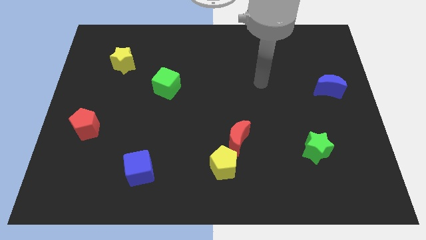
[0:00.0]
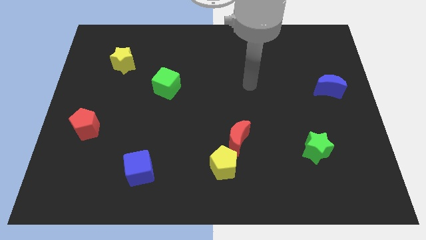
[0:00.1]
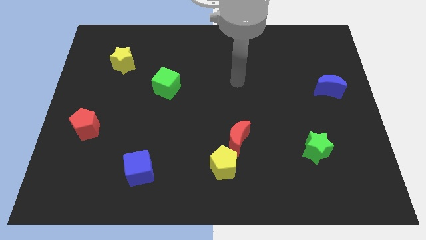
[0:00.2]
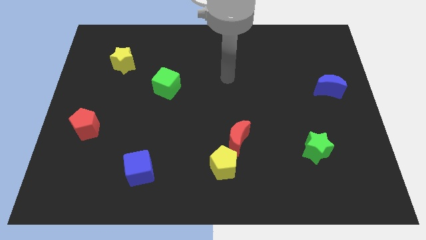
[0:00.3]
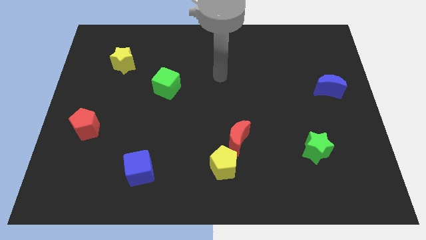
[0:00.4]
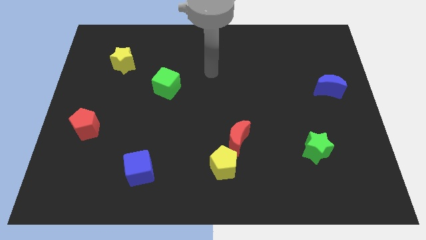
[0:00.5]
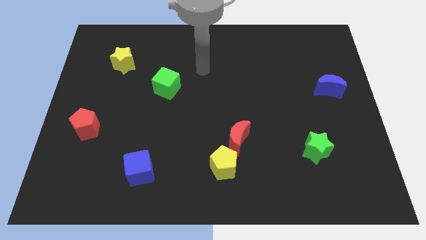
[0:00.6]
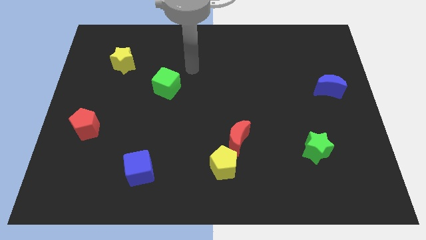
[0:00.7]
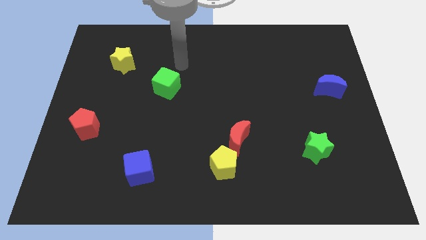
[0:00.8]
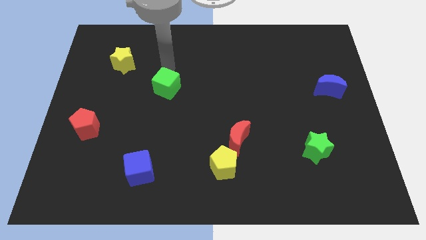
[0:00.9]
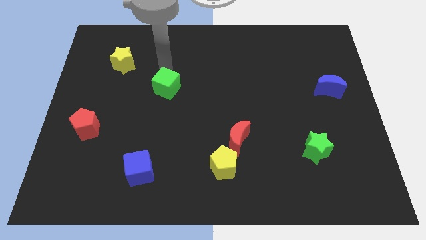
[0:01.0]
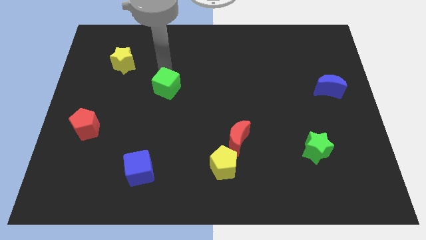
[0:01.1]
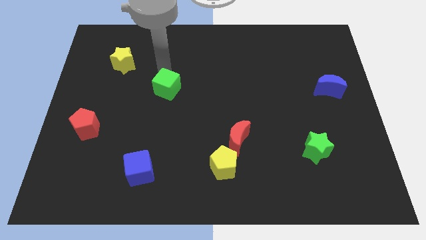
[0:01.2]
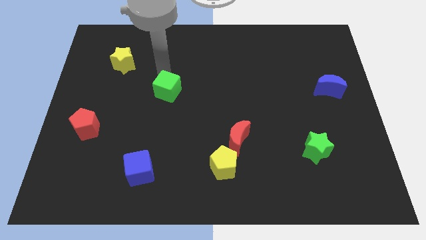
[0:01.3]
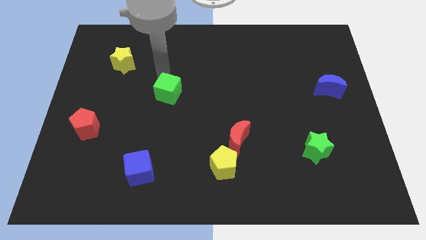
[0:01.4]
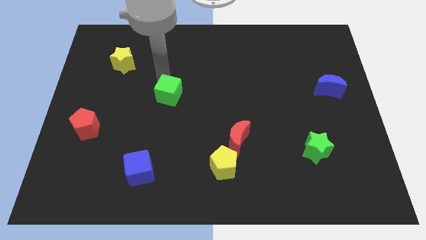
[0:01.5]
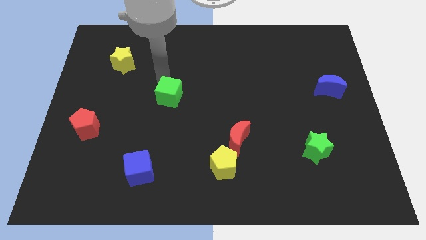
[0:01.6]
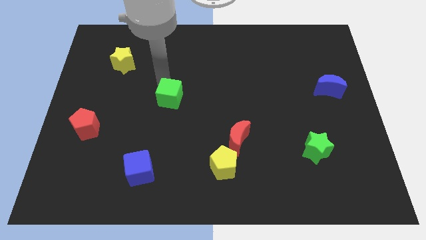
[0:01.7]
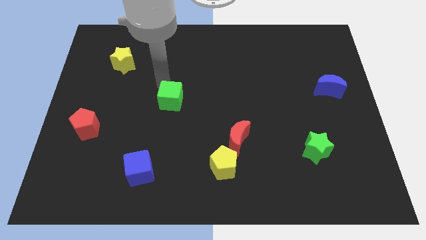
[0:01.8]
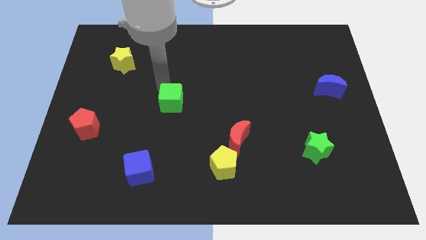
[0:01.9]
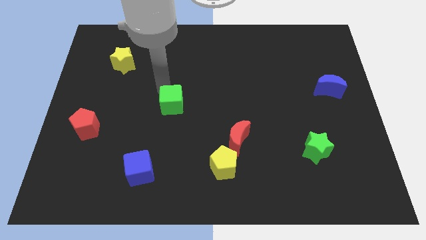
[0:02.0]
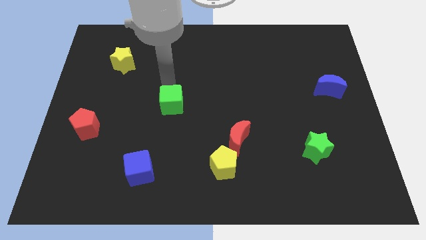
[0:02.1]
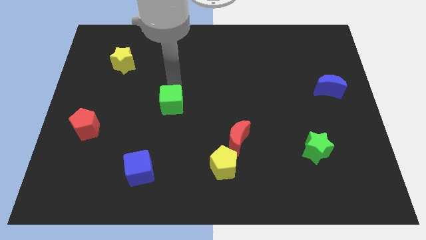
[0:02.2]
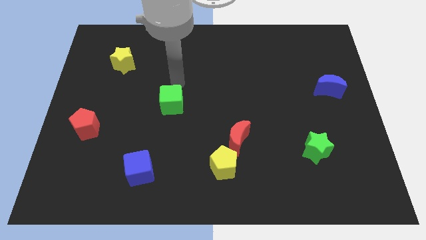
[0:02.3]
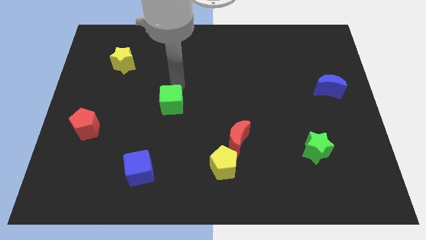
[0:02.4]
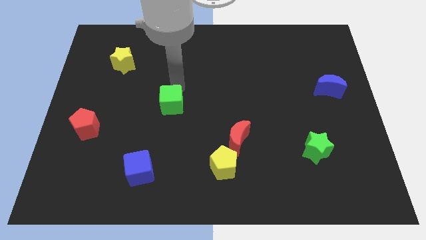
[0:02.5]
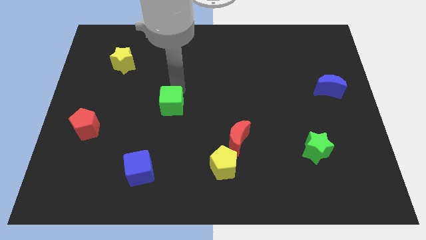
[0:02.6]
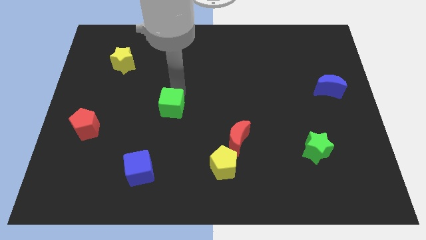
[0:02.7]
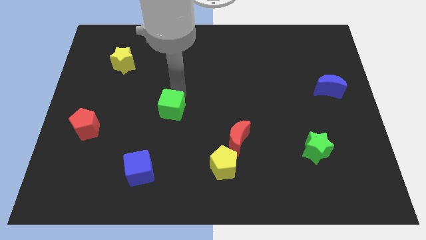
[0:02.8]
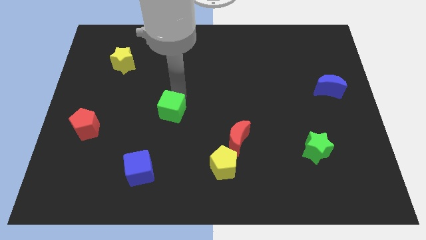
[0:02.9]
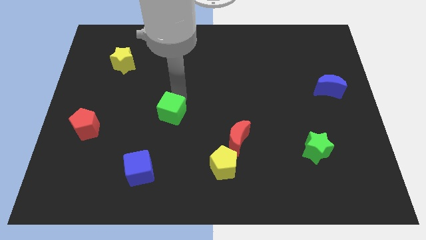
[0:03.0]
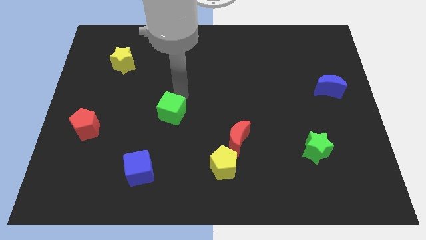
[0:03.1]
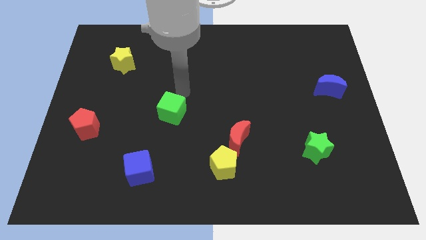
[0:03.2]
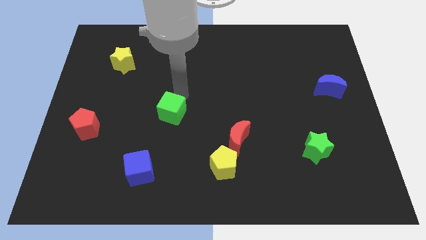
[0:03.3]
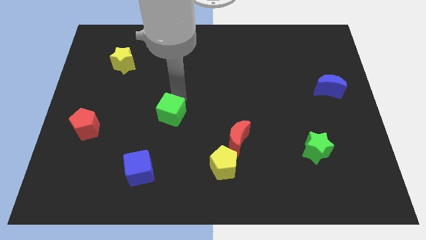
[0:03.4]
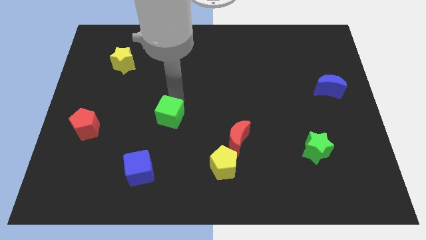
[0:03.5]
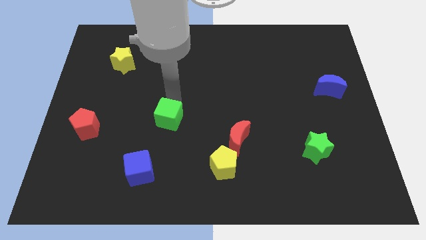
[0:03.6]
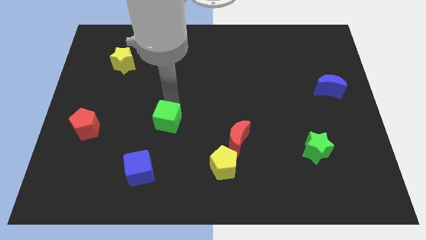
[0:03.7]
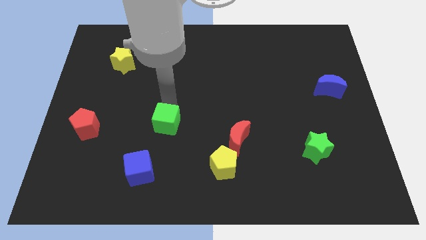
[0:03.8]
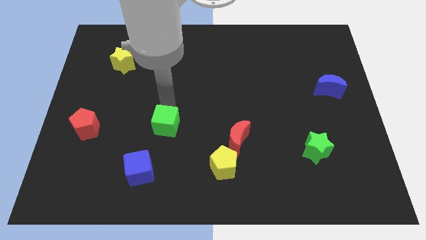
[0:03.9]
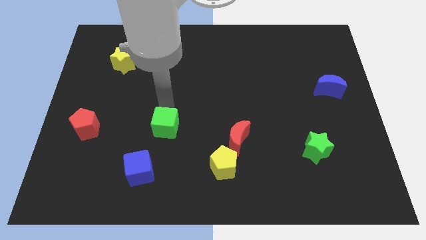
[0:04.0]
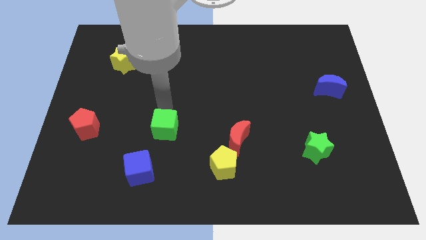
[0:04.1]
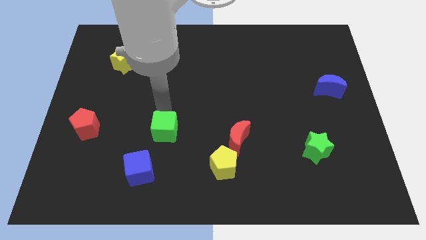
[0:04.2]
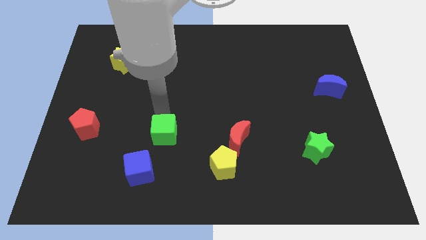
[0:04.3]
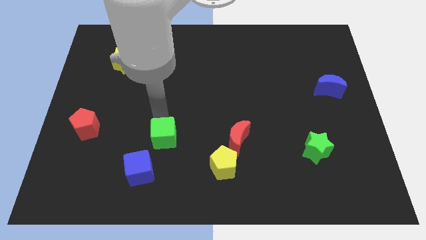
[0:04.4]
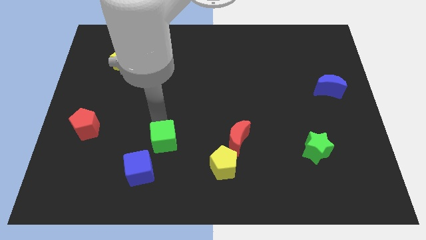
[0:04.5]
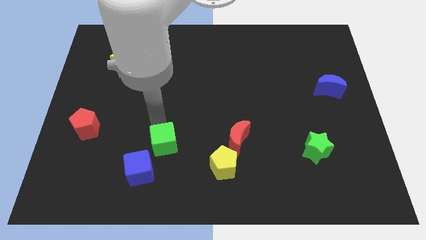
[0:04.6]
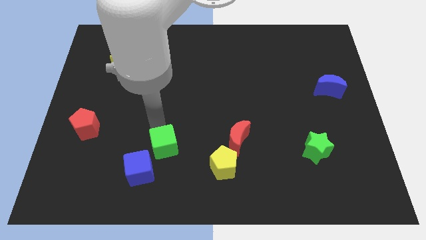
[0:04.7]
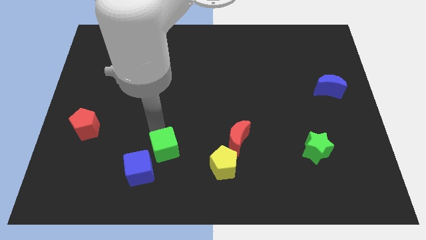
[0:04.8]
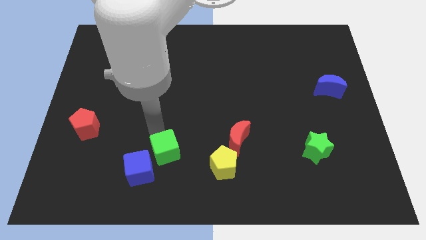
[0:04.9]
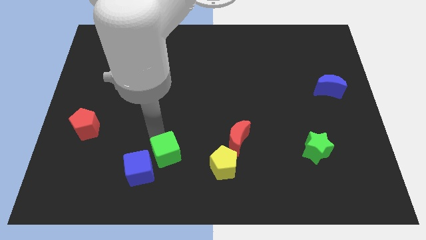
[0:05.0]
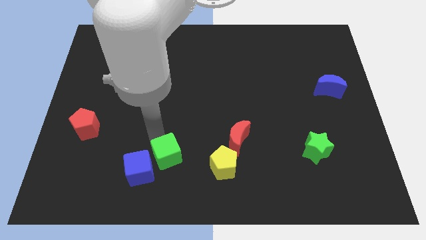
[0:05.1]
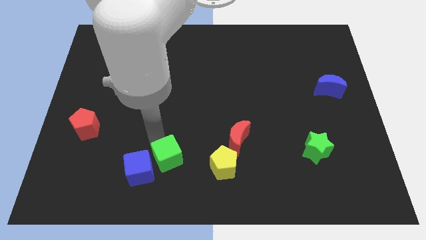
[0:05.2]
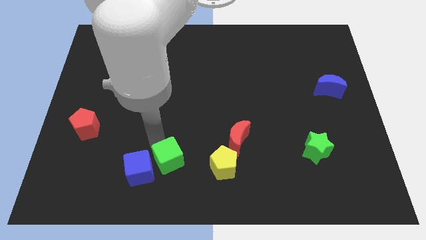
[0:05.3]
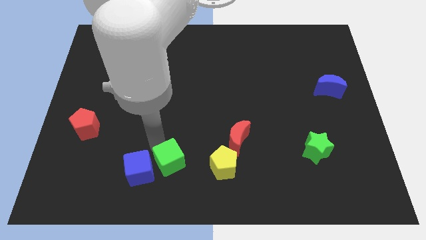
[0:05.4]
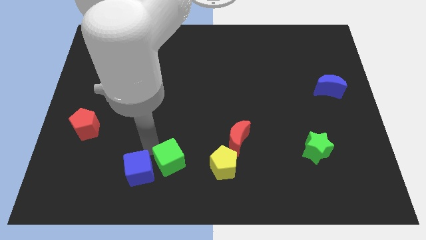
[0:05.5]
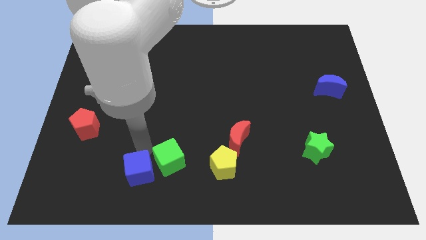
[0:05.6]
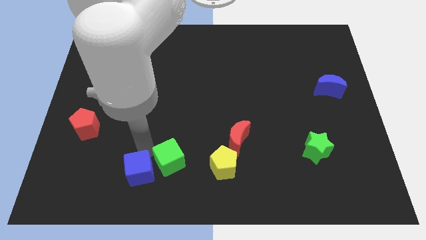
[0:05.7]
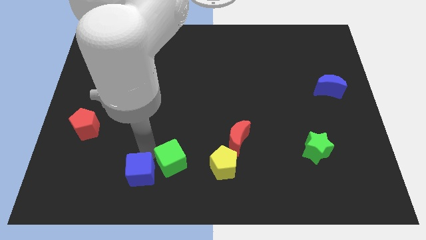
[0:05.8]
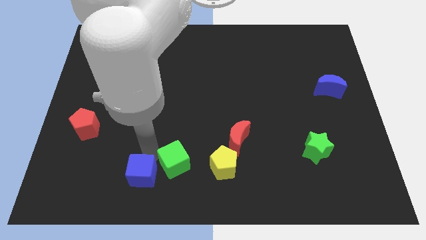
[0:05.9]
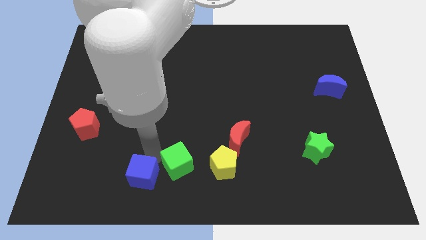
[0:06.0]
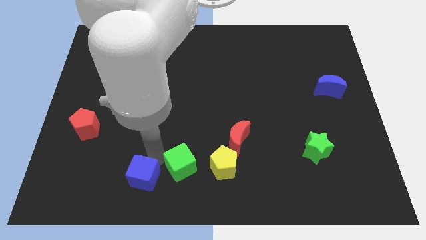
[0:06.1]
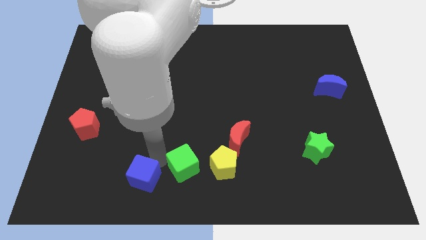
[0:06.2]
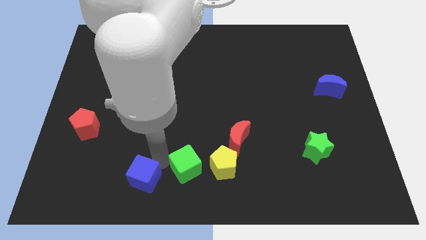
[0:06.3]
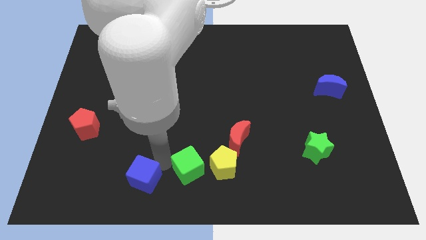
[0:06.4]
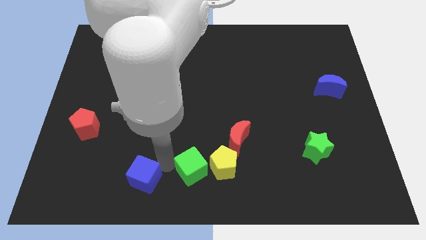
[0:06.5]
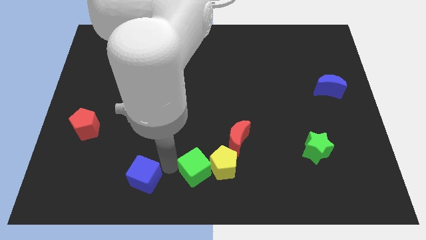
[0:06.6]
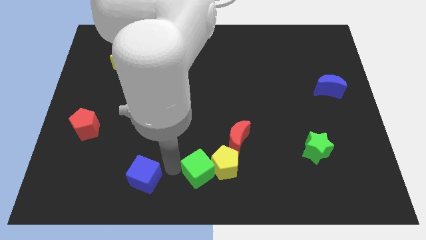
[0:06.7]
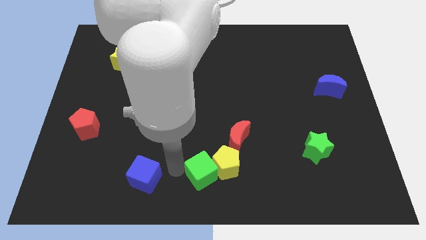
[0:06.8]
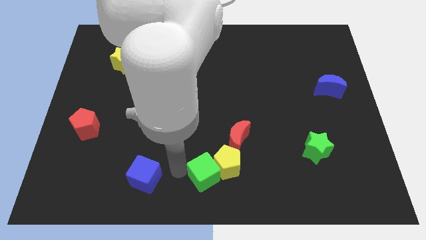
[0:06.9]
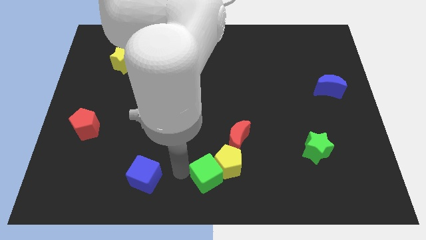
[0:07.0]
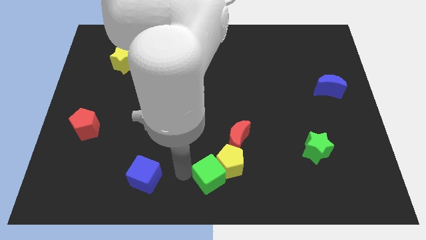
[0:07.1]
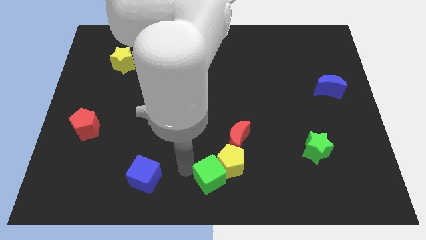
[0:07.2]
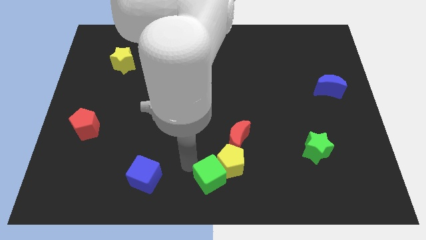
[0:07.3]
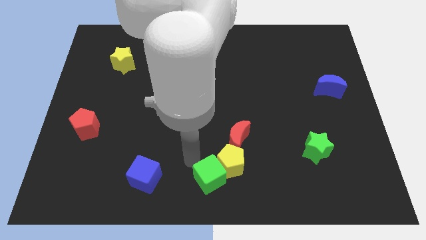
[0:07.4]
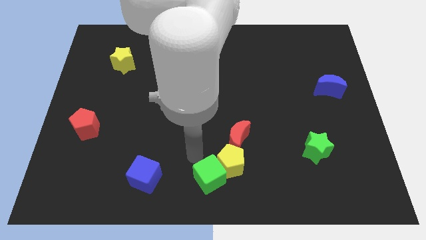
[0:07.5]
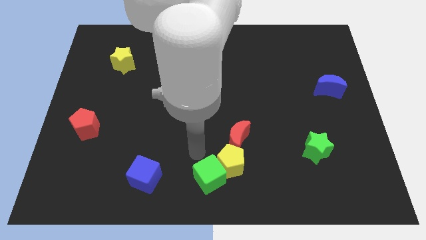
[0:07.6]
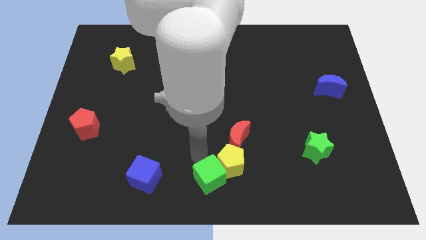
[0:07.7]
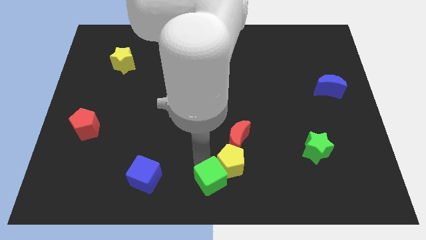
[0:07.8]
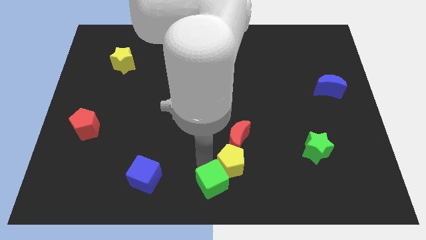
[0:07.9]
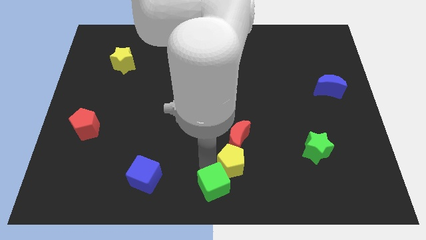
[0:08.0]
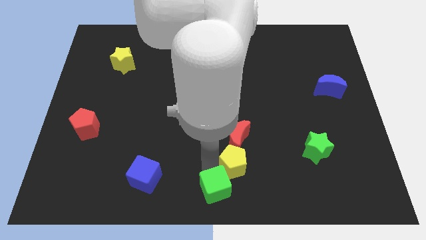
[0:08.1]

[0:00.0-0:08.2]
slide the green cube below the red moon
